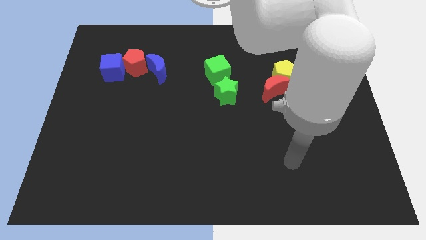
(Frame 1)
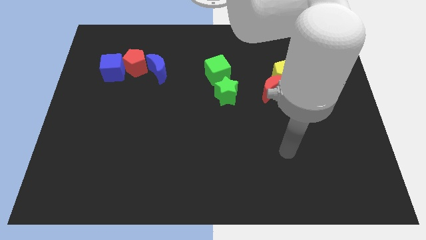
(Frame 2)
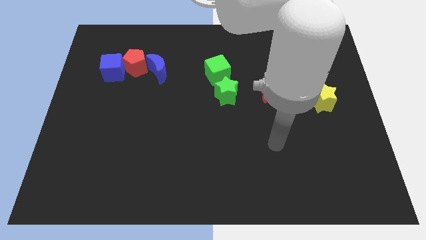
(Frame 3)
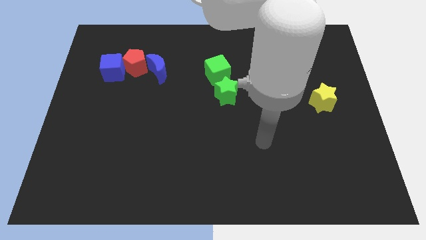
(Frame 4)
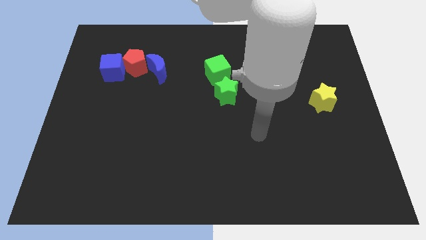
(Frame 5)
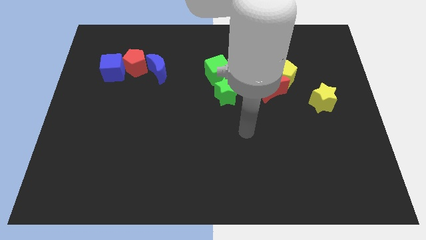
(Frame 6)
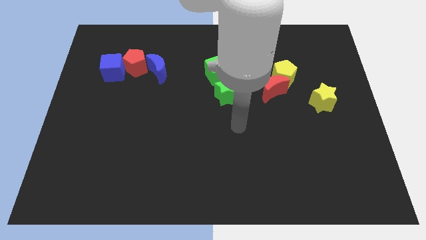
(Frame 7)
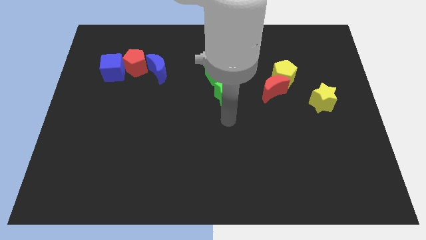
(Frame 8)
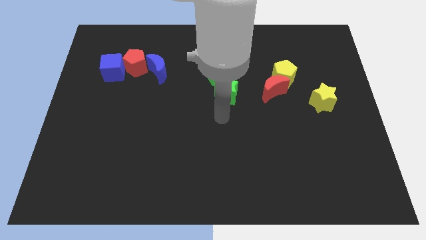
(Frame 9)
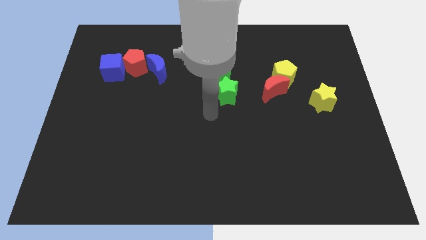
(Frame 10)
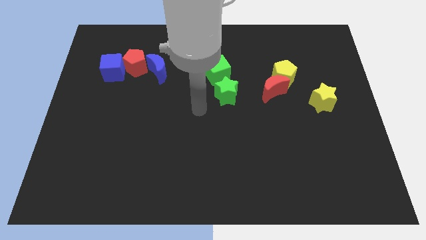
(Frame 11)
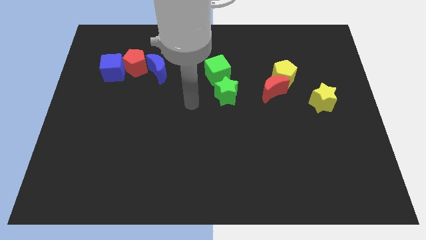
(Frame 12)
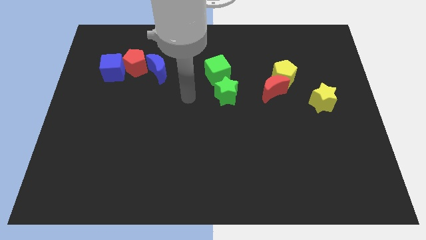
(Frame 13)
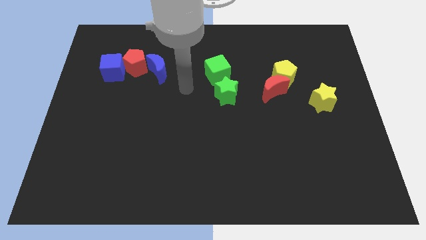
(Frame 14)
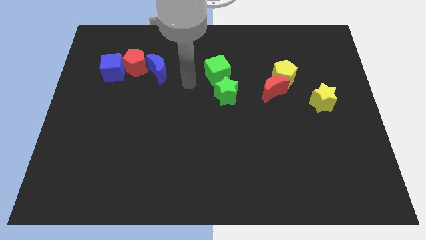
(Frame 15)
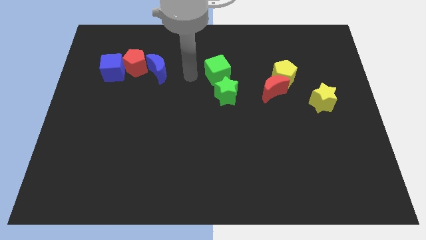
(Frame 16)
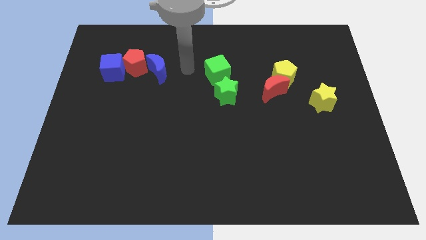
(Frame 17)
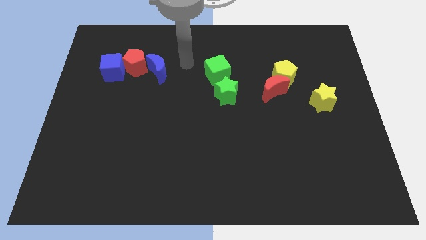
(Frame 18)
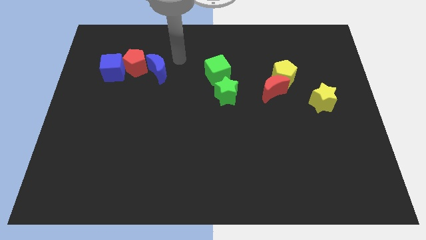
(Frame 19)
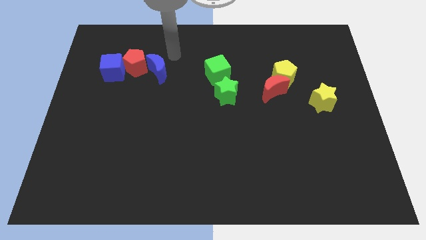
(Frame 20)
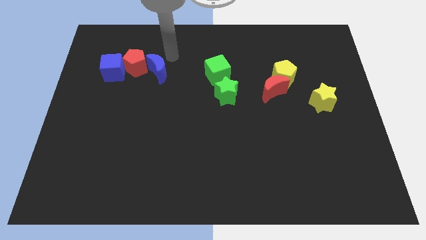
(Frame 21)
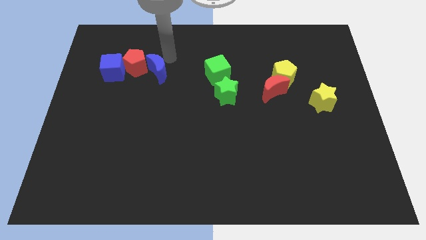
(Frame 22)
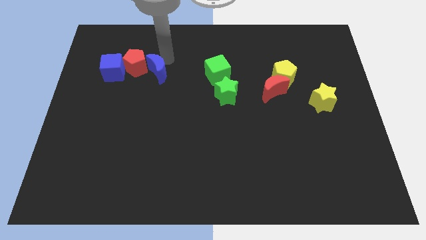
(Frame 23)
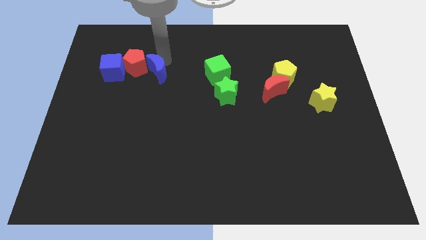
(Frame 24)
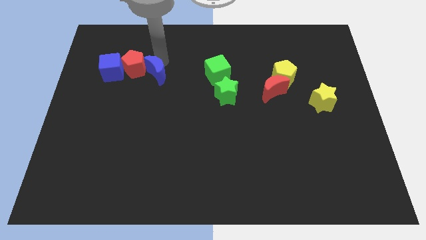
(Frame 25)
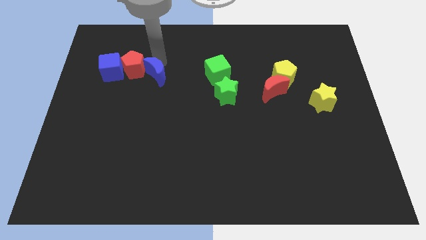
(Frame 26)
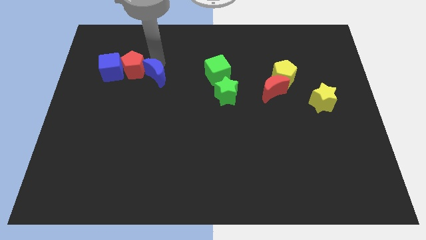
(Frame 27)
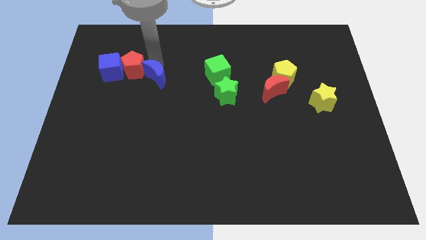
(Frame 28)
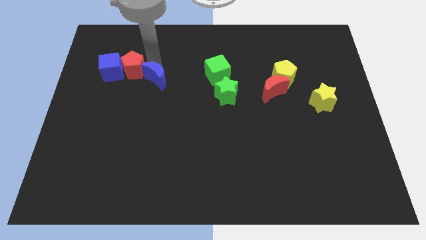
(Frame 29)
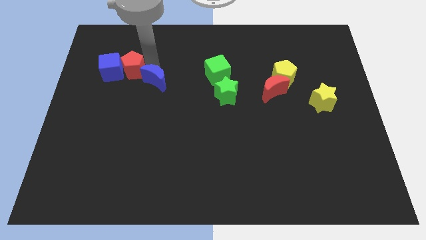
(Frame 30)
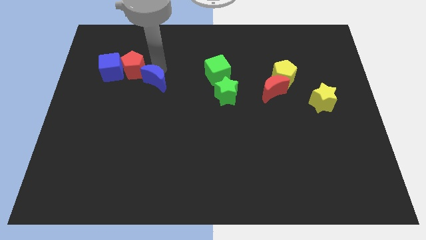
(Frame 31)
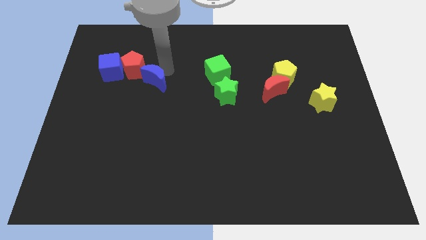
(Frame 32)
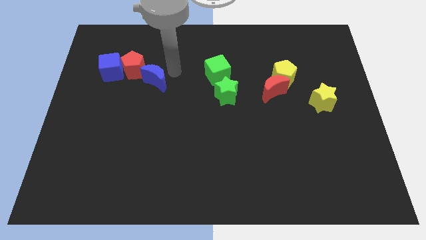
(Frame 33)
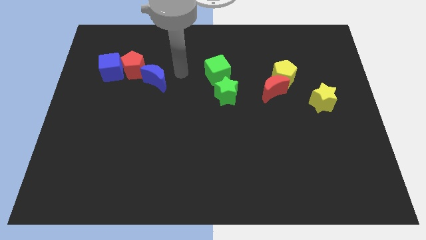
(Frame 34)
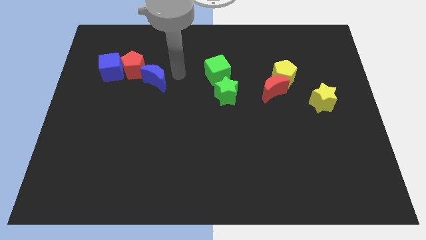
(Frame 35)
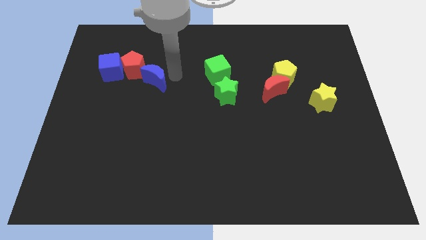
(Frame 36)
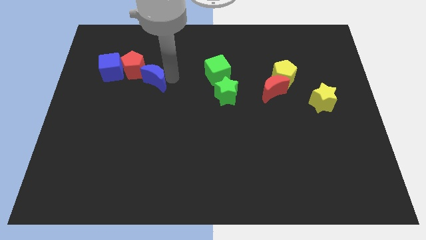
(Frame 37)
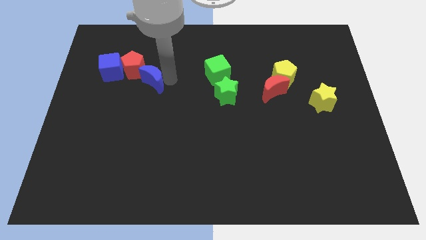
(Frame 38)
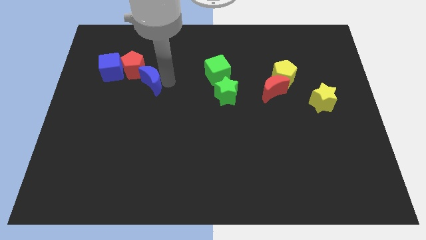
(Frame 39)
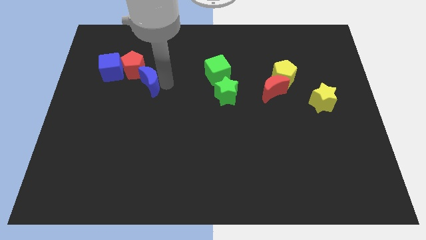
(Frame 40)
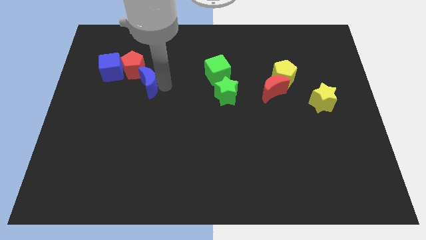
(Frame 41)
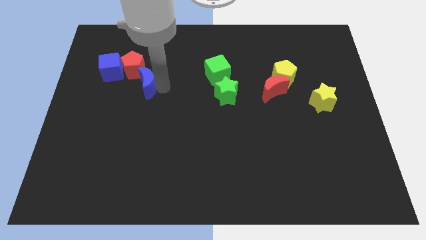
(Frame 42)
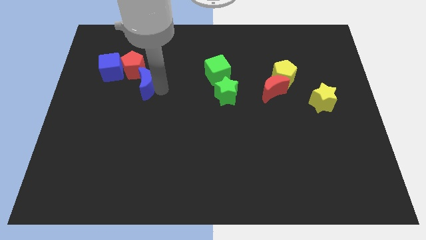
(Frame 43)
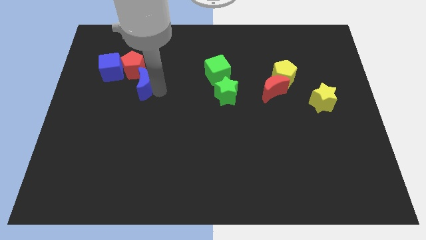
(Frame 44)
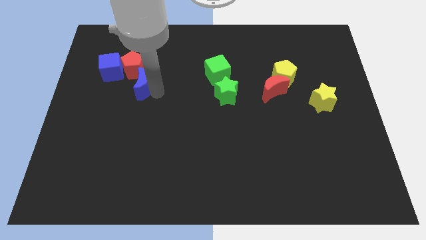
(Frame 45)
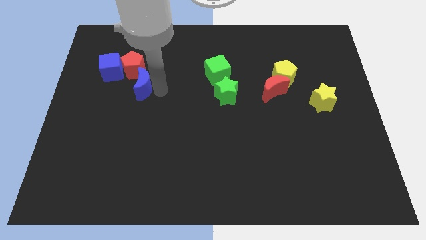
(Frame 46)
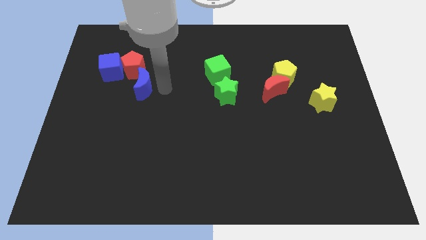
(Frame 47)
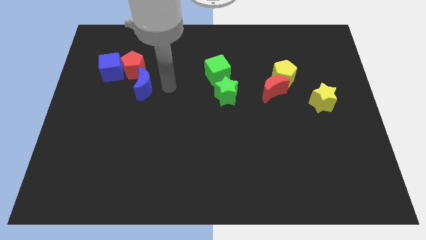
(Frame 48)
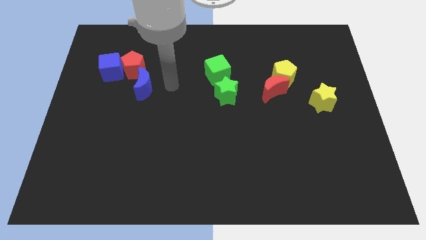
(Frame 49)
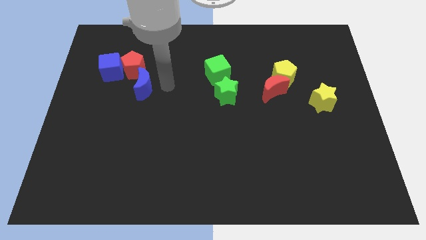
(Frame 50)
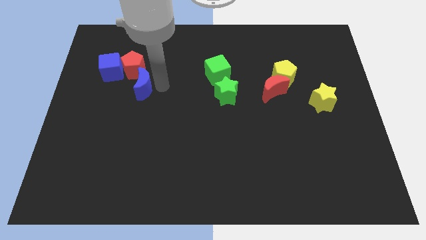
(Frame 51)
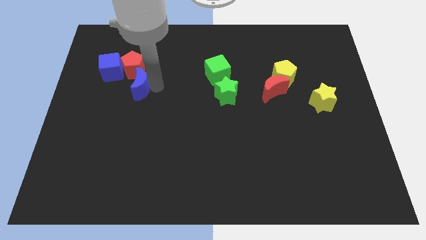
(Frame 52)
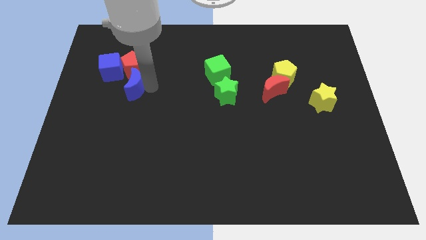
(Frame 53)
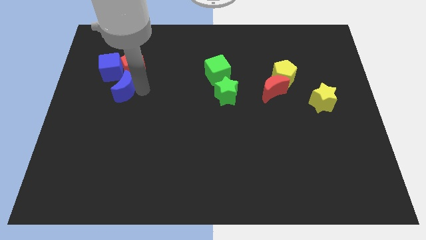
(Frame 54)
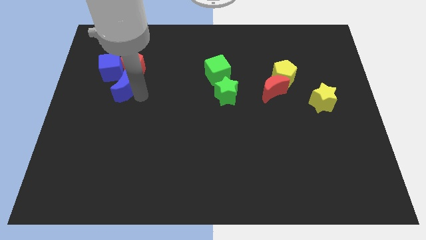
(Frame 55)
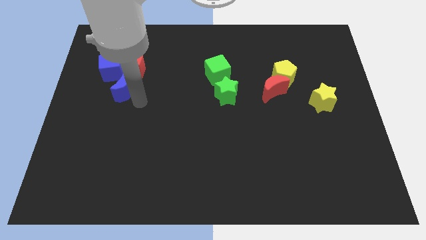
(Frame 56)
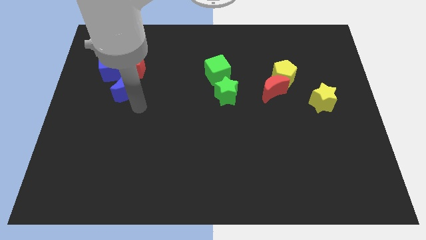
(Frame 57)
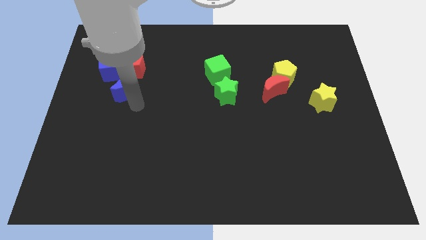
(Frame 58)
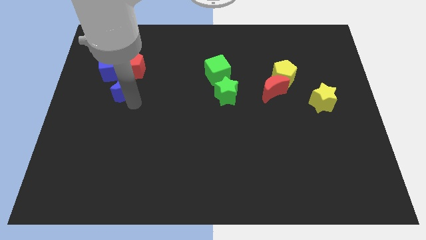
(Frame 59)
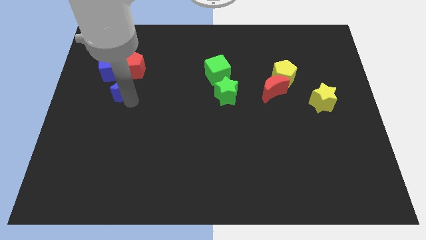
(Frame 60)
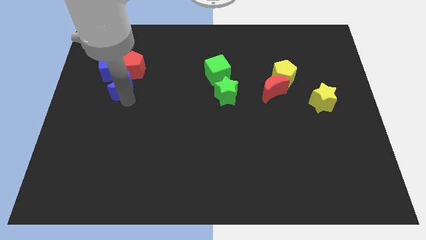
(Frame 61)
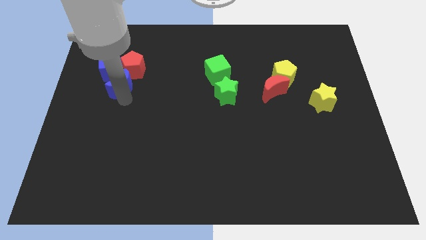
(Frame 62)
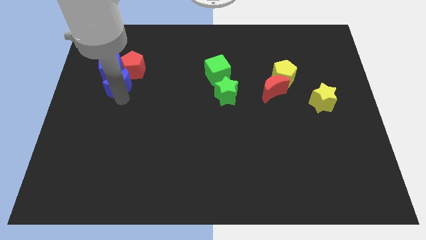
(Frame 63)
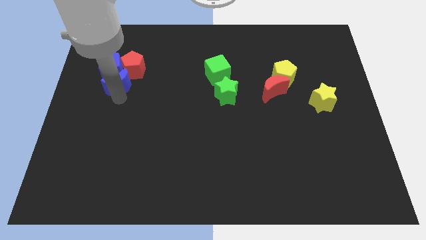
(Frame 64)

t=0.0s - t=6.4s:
slide the blue moon close to the blue cube

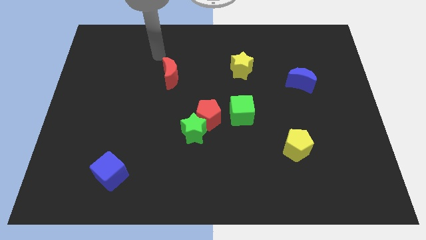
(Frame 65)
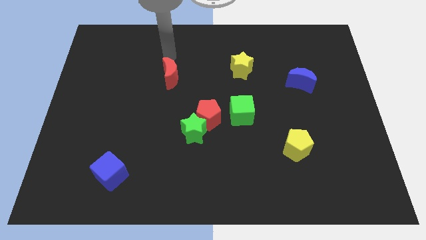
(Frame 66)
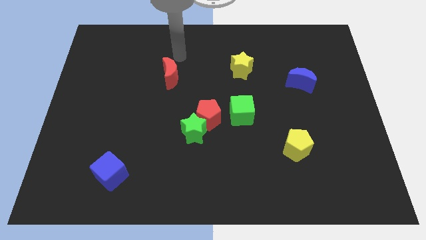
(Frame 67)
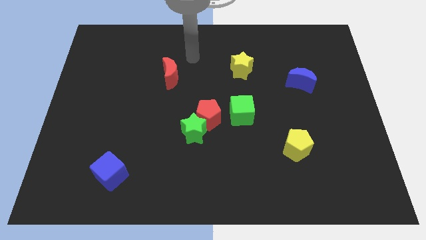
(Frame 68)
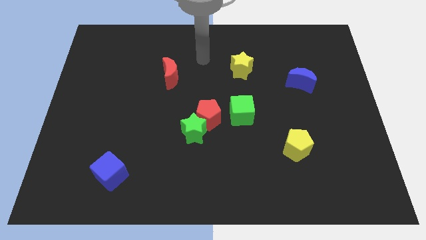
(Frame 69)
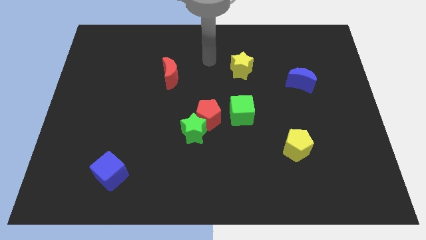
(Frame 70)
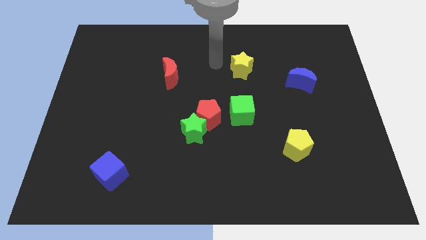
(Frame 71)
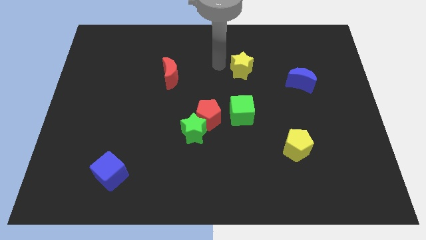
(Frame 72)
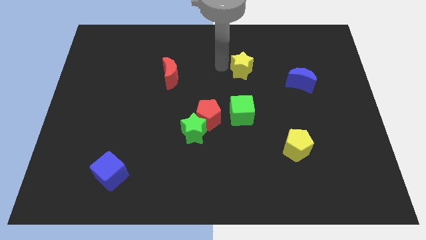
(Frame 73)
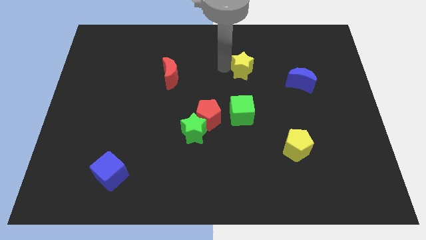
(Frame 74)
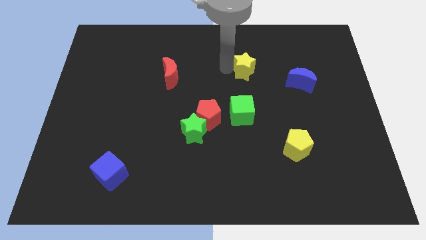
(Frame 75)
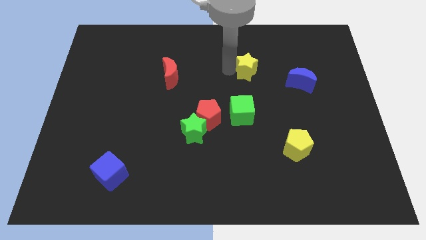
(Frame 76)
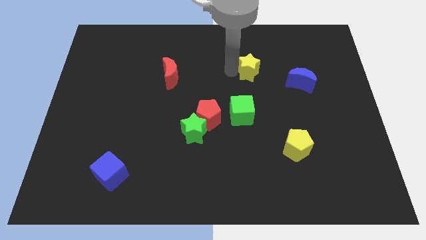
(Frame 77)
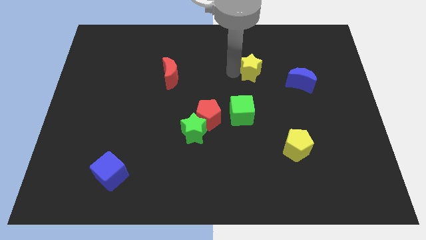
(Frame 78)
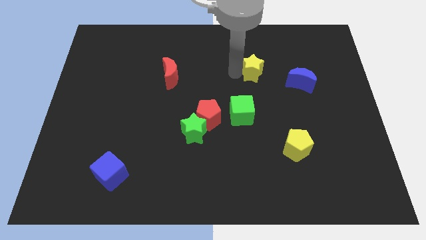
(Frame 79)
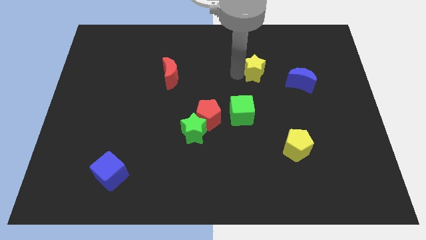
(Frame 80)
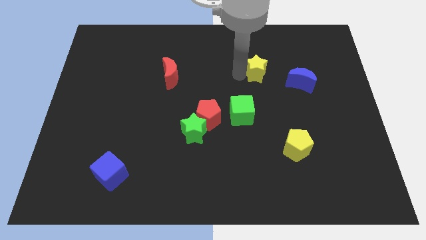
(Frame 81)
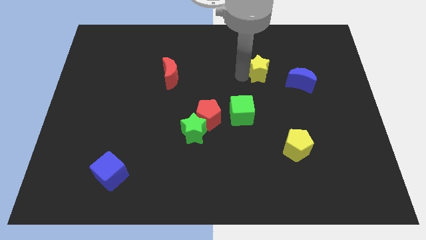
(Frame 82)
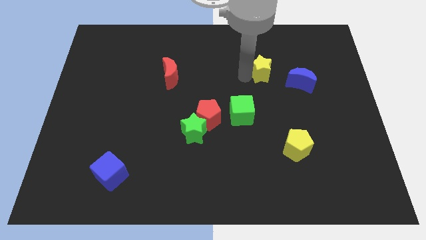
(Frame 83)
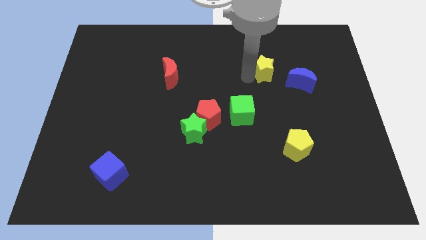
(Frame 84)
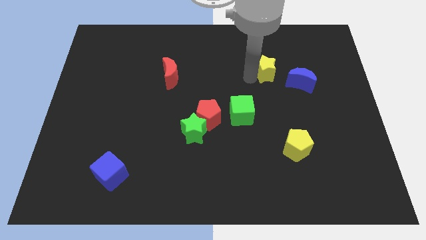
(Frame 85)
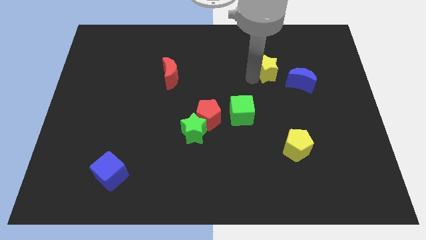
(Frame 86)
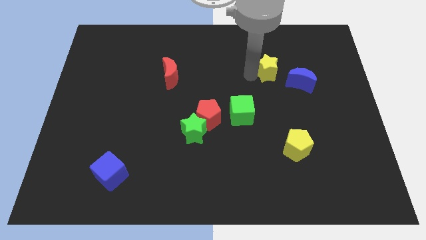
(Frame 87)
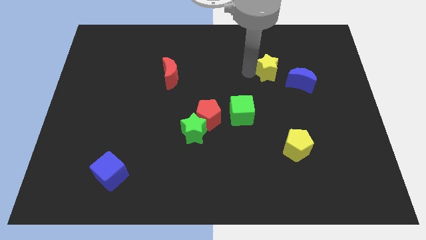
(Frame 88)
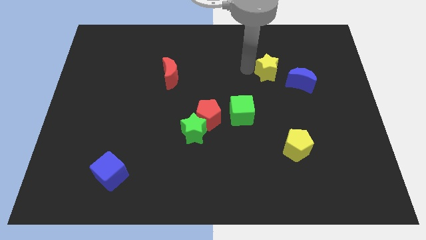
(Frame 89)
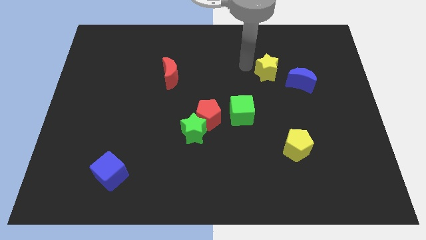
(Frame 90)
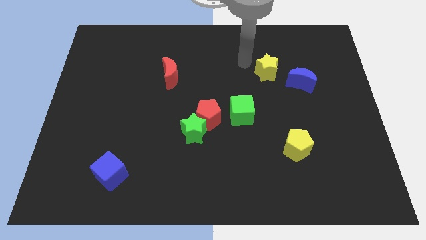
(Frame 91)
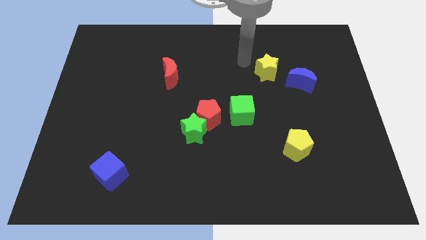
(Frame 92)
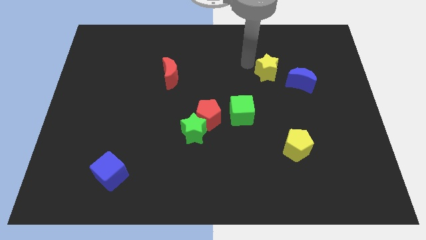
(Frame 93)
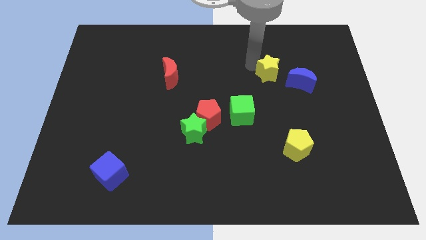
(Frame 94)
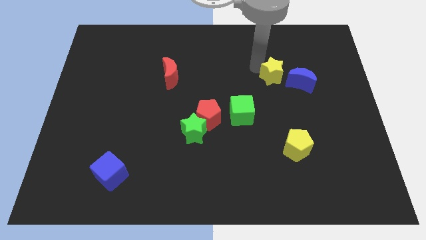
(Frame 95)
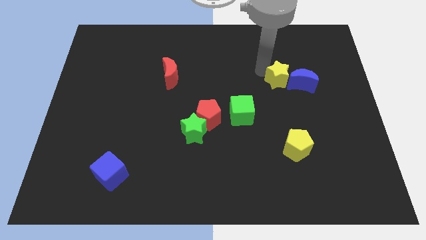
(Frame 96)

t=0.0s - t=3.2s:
slide the yellow star to the blue moon
